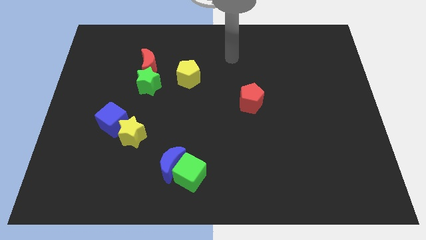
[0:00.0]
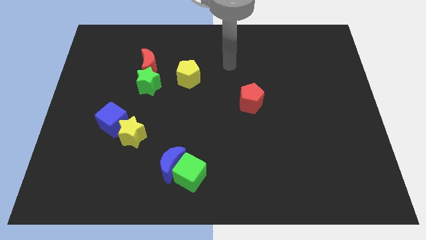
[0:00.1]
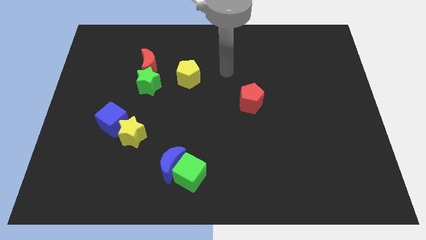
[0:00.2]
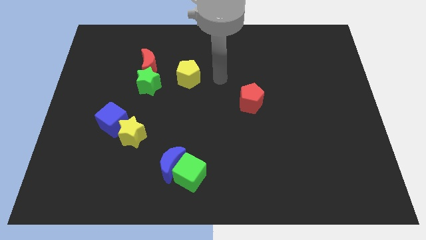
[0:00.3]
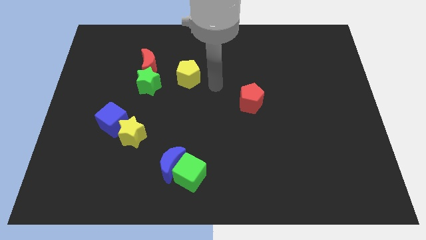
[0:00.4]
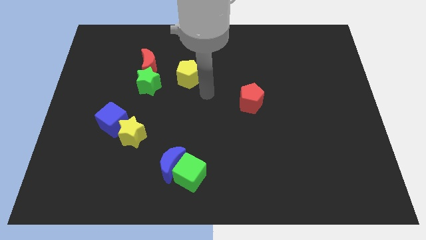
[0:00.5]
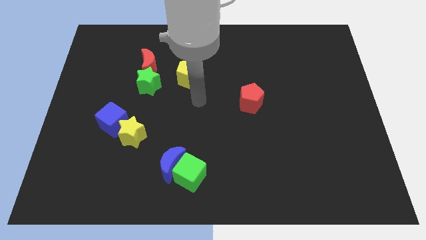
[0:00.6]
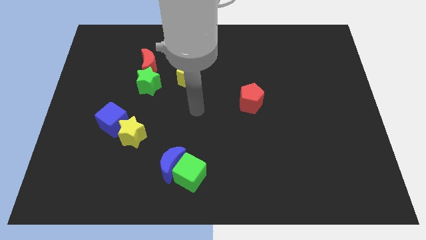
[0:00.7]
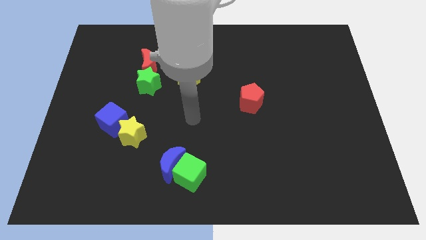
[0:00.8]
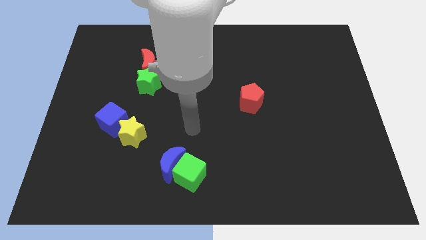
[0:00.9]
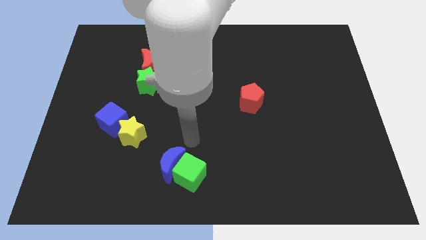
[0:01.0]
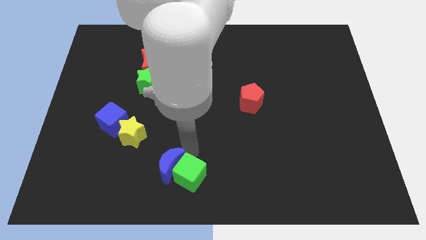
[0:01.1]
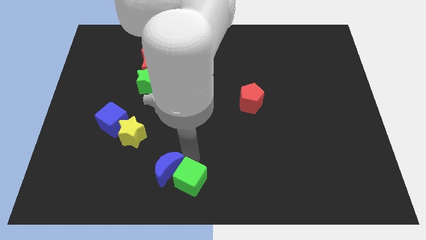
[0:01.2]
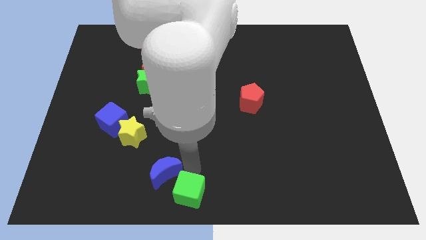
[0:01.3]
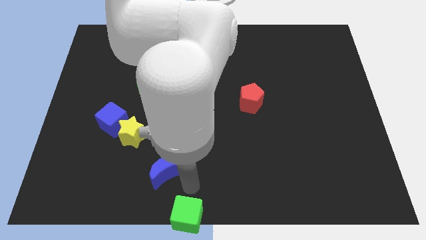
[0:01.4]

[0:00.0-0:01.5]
pull the blue moon apart from the green cube

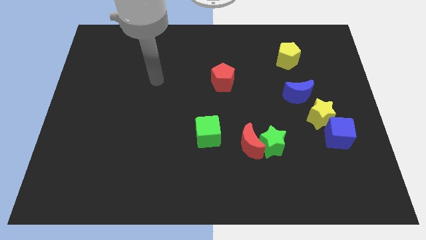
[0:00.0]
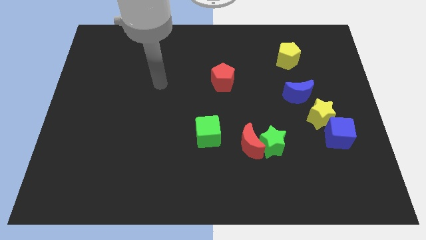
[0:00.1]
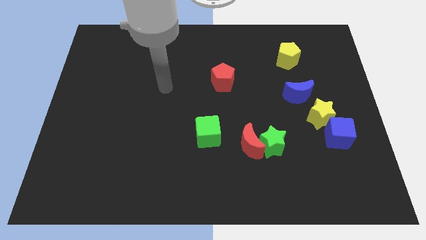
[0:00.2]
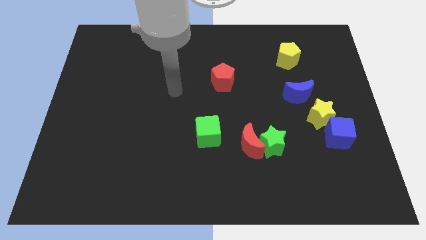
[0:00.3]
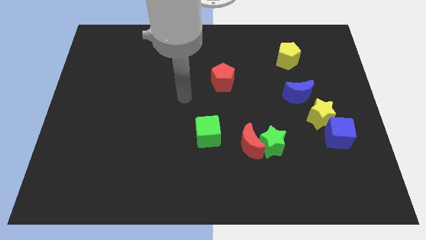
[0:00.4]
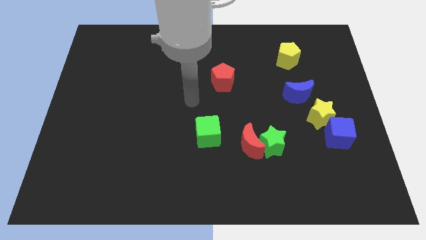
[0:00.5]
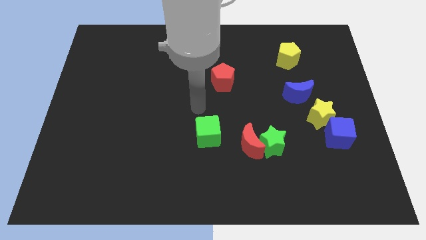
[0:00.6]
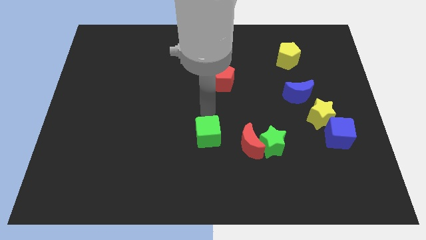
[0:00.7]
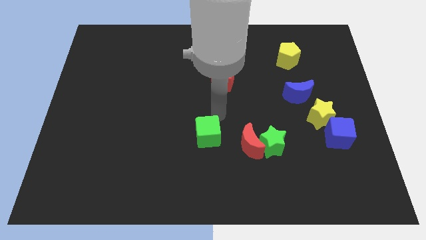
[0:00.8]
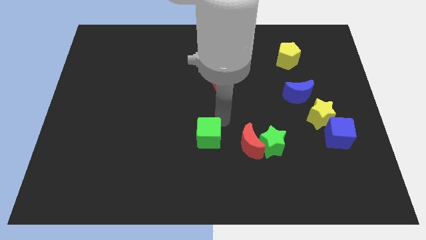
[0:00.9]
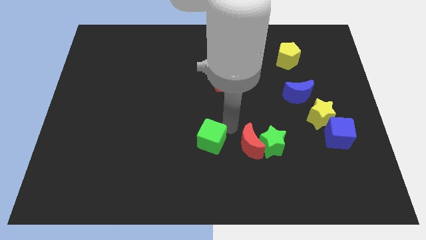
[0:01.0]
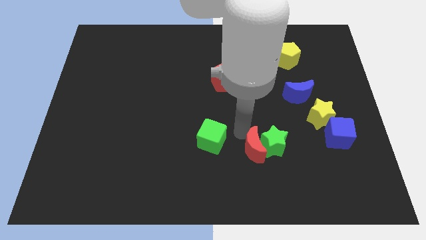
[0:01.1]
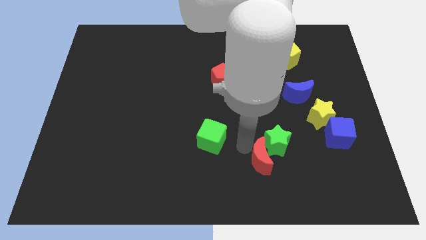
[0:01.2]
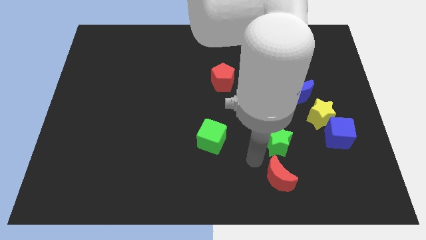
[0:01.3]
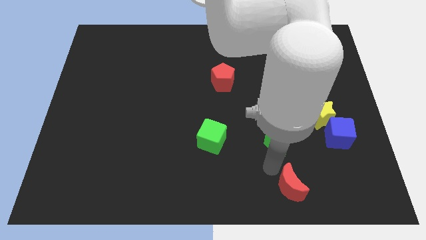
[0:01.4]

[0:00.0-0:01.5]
separate the green star from the red moon

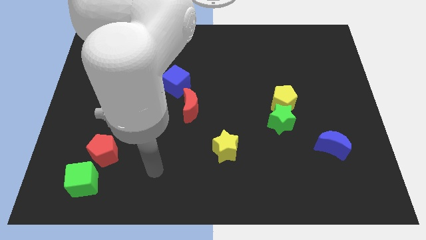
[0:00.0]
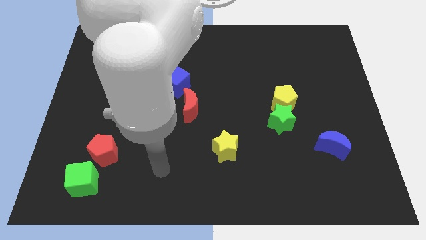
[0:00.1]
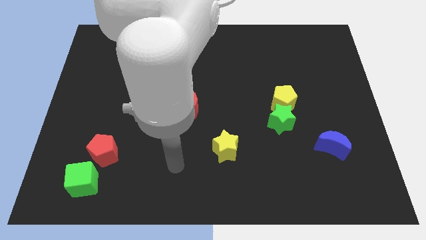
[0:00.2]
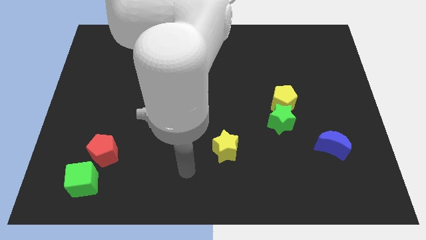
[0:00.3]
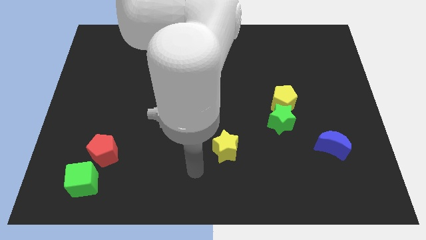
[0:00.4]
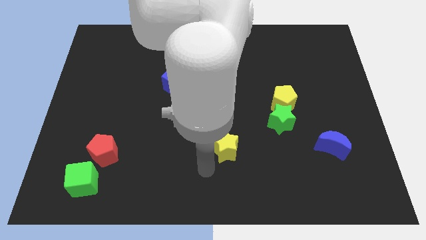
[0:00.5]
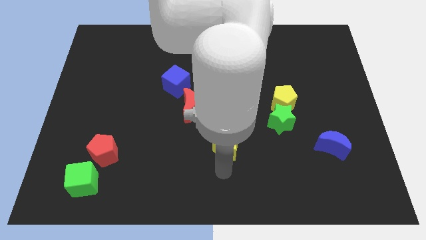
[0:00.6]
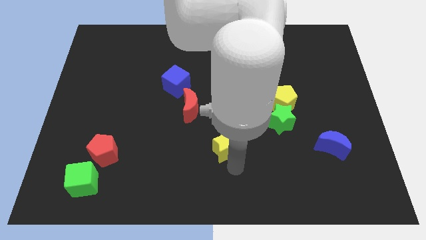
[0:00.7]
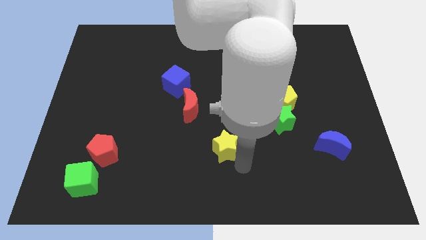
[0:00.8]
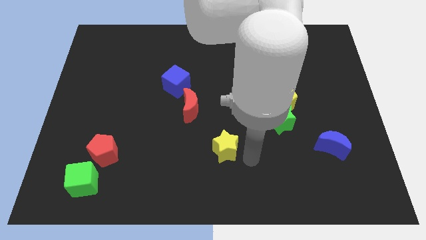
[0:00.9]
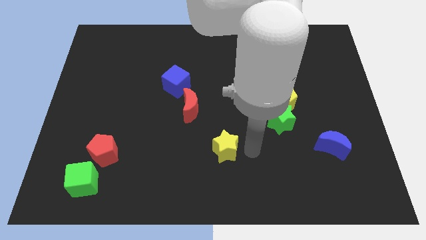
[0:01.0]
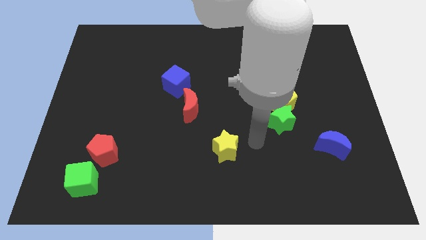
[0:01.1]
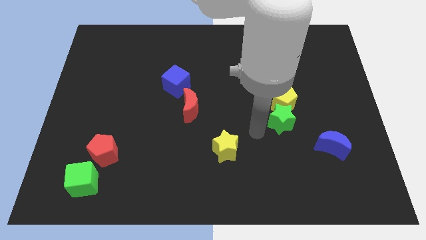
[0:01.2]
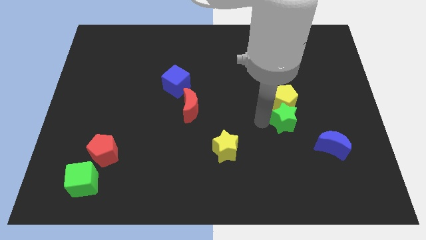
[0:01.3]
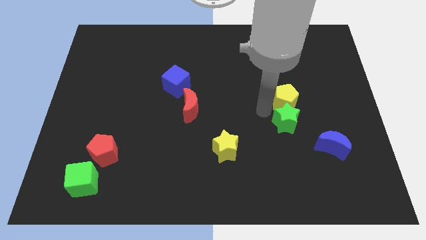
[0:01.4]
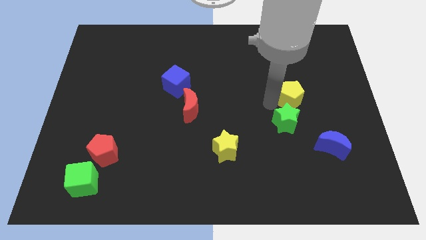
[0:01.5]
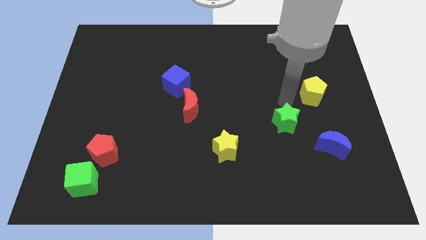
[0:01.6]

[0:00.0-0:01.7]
separate the green star from the yellow pentagon

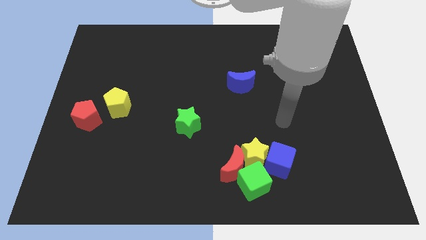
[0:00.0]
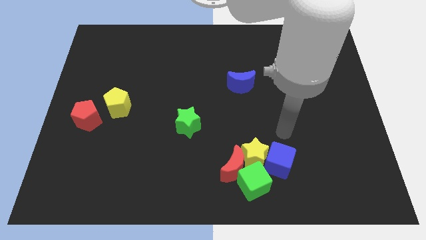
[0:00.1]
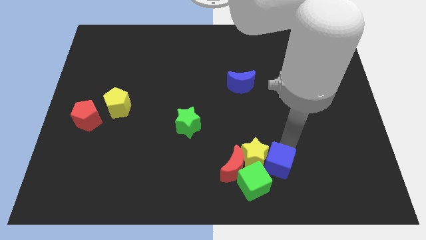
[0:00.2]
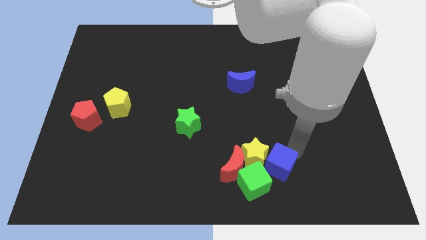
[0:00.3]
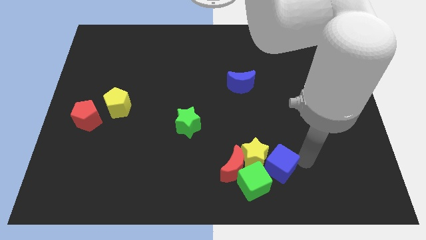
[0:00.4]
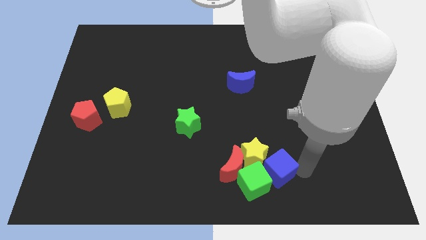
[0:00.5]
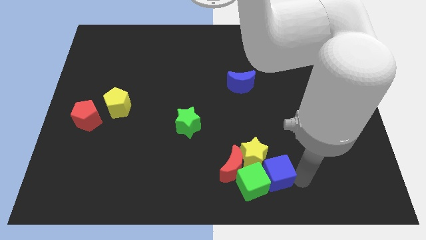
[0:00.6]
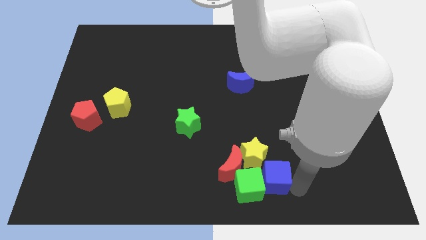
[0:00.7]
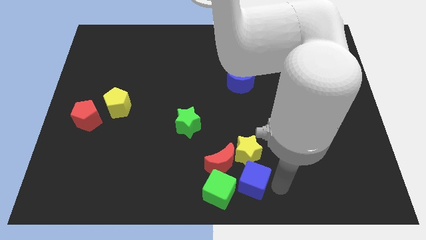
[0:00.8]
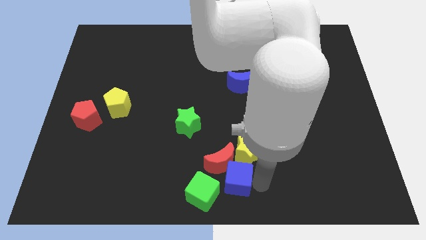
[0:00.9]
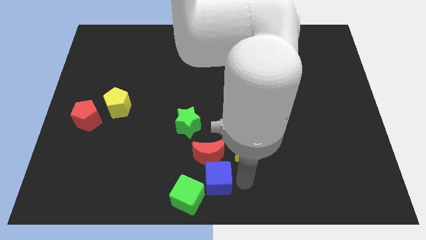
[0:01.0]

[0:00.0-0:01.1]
move the yellow star away from the group of blocks

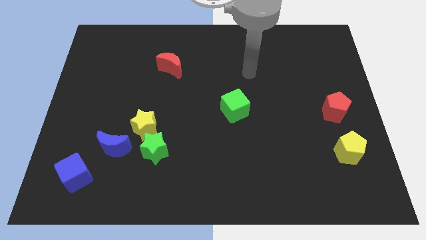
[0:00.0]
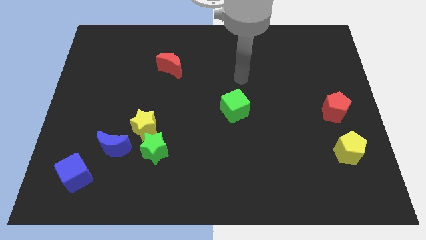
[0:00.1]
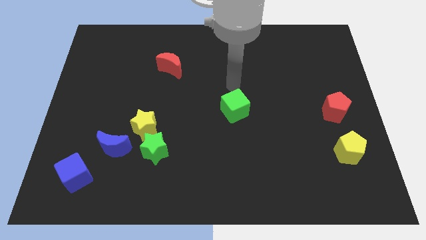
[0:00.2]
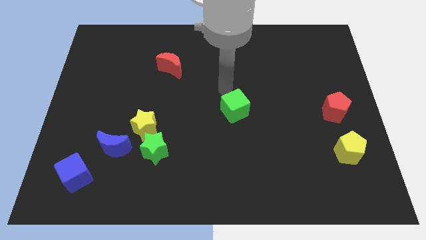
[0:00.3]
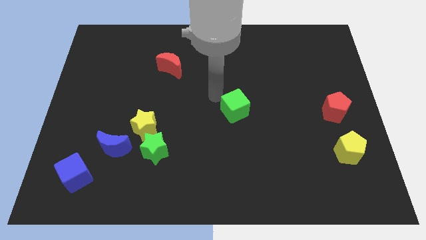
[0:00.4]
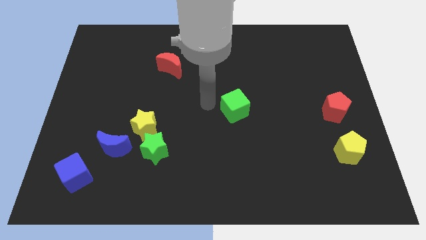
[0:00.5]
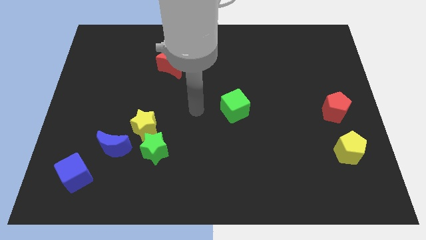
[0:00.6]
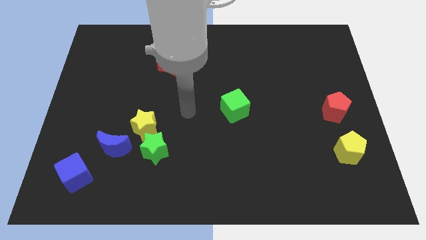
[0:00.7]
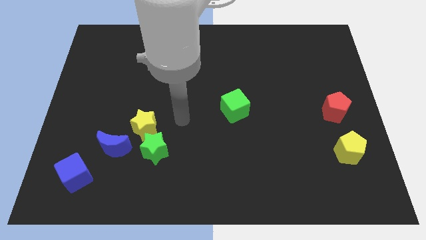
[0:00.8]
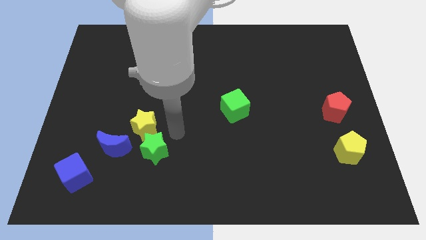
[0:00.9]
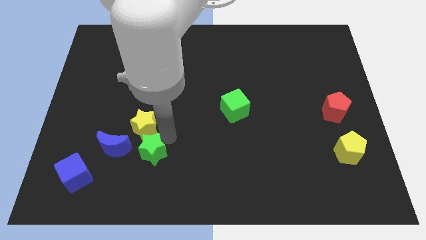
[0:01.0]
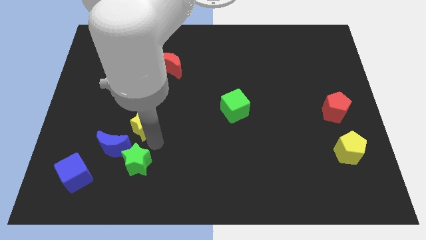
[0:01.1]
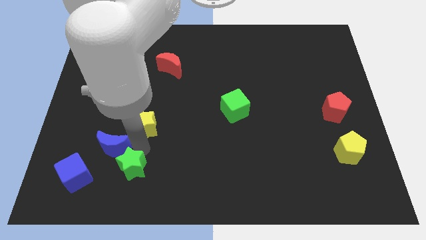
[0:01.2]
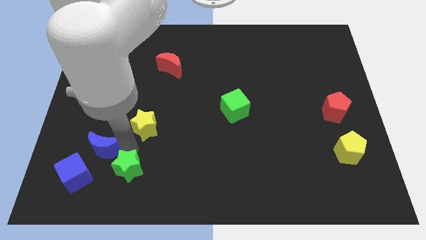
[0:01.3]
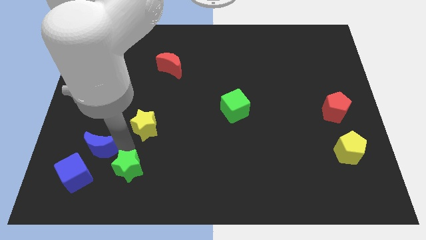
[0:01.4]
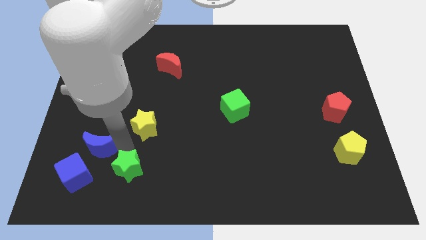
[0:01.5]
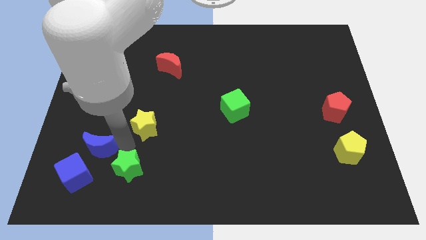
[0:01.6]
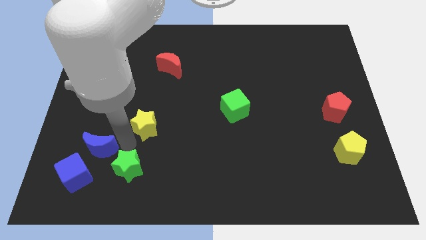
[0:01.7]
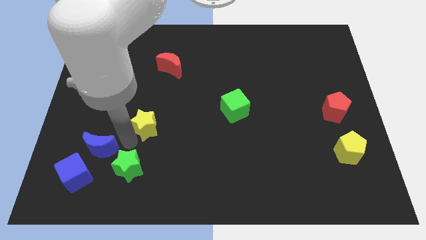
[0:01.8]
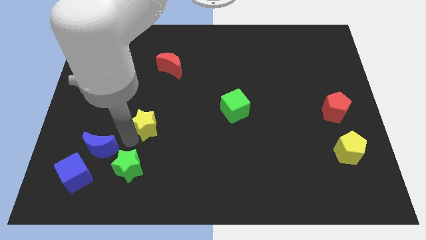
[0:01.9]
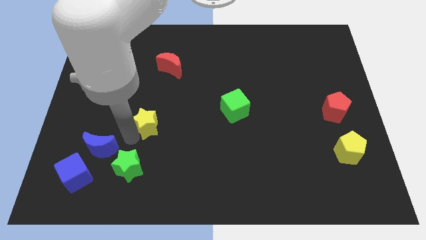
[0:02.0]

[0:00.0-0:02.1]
pull the yellow star apart from the green star and blue moon

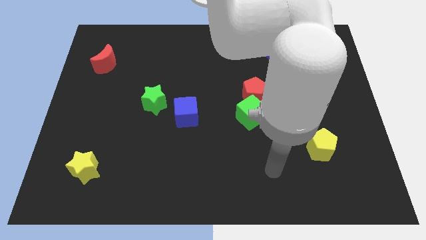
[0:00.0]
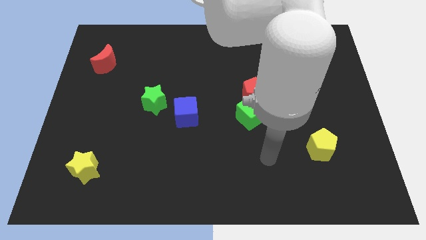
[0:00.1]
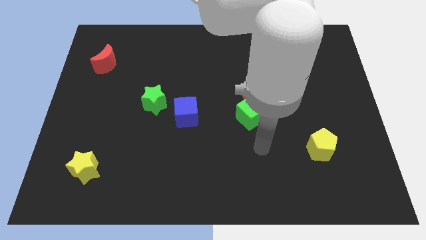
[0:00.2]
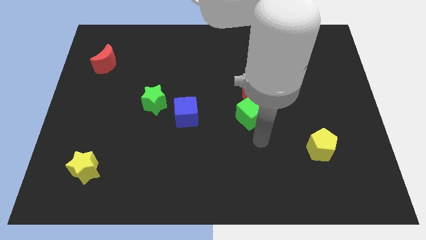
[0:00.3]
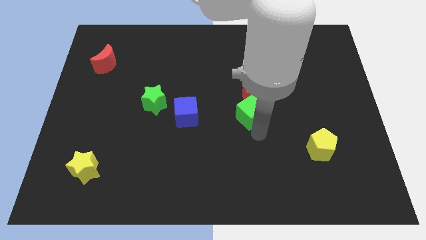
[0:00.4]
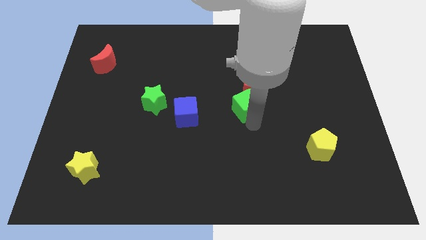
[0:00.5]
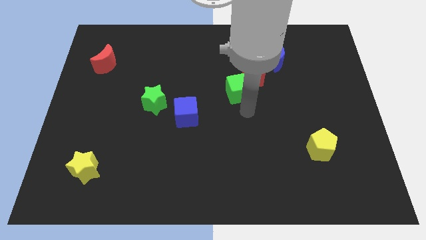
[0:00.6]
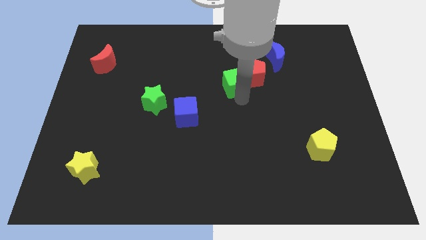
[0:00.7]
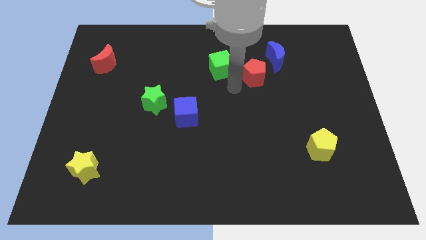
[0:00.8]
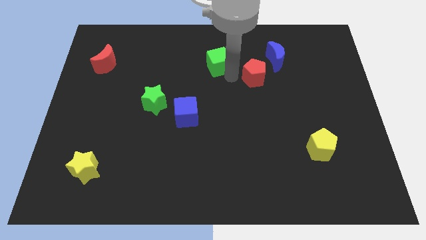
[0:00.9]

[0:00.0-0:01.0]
separate the red pentagon from the green cube

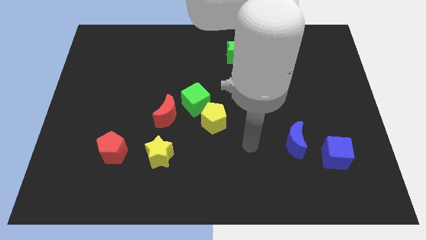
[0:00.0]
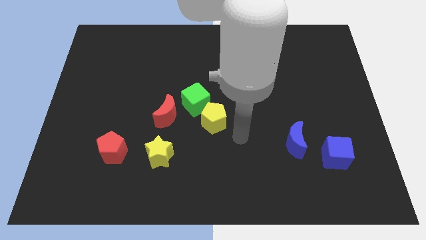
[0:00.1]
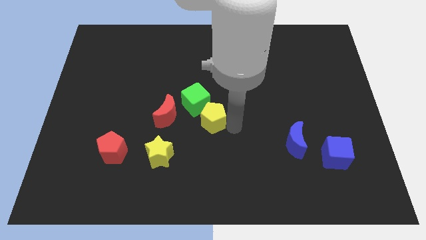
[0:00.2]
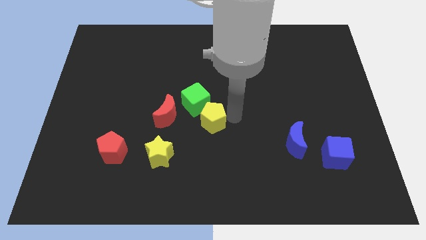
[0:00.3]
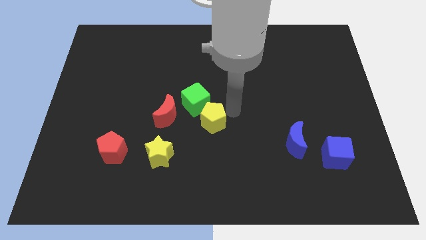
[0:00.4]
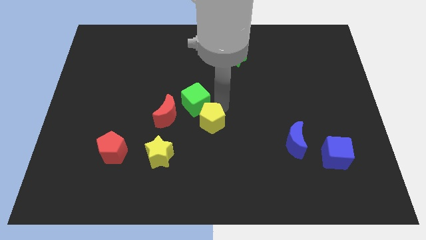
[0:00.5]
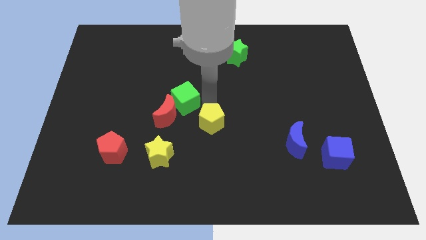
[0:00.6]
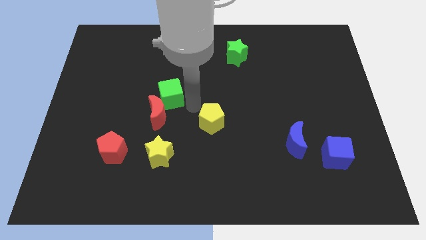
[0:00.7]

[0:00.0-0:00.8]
pull the yellow pentagon apart from the green cube
